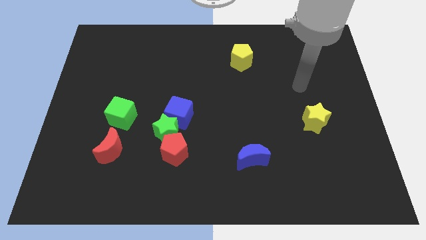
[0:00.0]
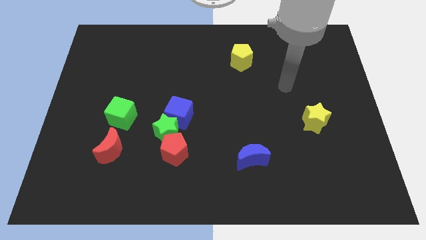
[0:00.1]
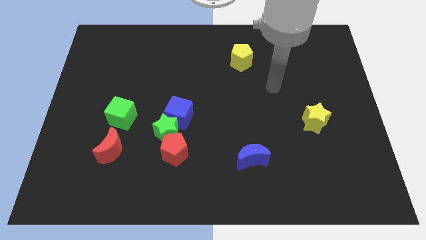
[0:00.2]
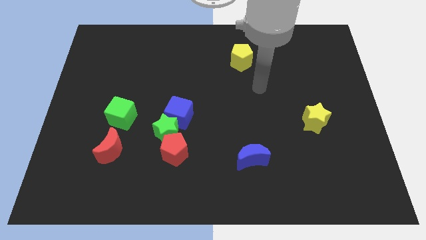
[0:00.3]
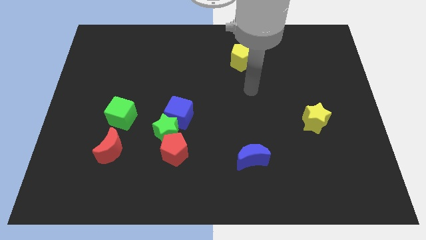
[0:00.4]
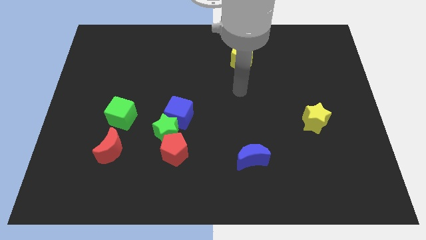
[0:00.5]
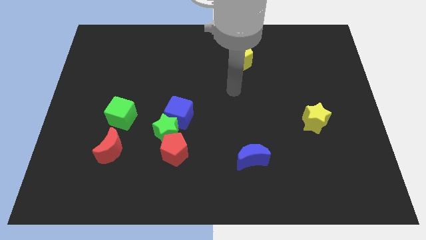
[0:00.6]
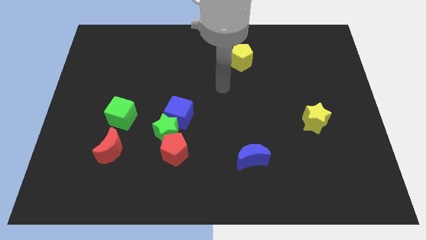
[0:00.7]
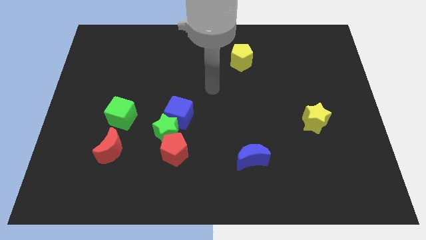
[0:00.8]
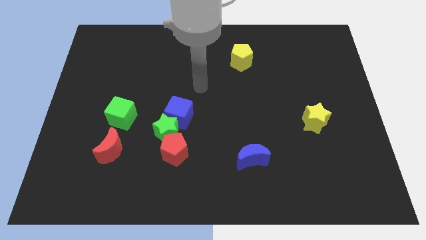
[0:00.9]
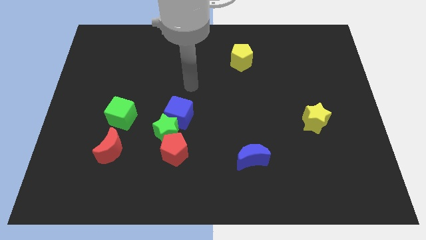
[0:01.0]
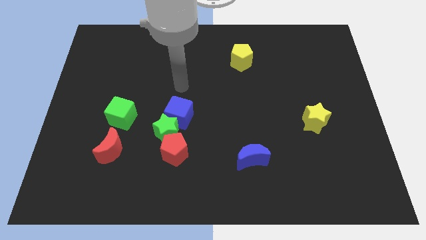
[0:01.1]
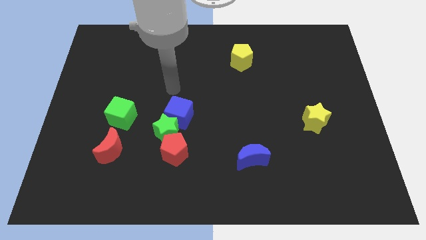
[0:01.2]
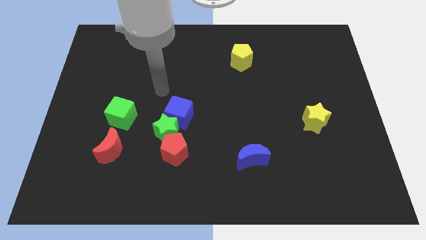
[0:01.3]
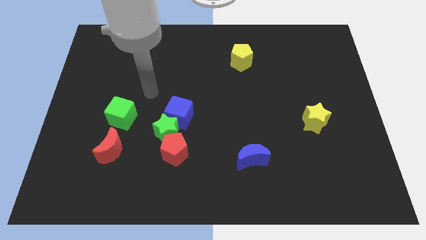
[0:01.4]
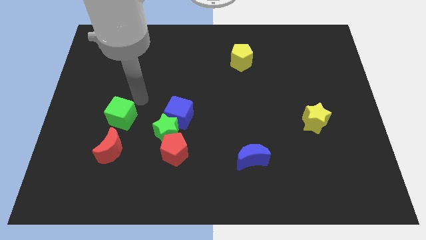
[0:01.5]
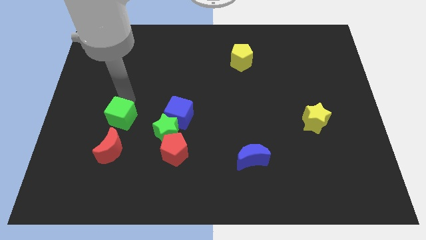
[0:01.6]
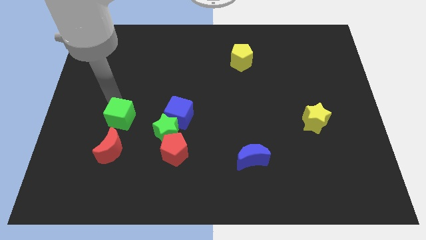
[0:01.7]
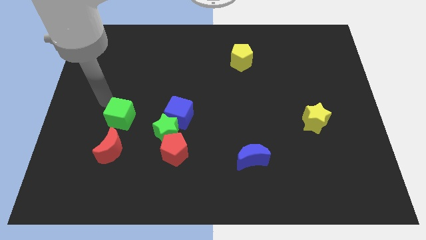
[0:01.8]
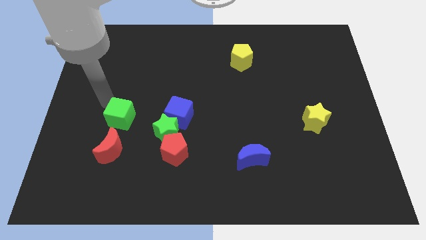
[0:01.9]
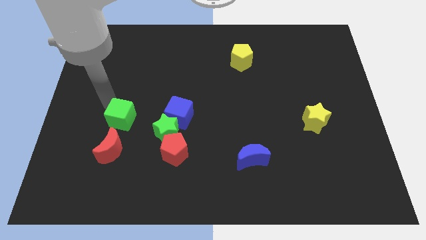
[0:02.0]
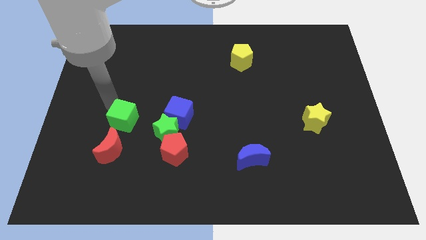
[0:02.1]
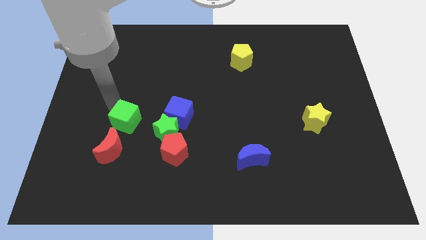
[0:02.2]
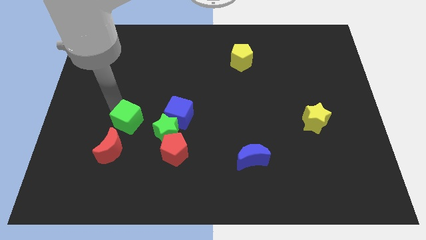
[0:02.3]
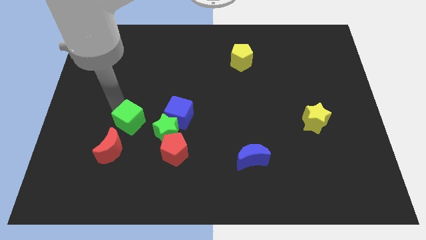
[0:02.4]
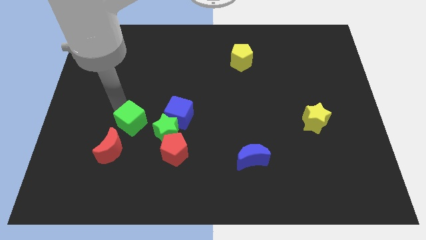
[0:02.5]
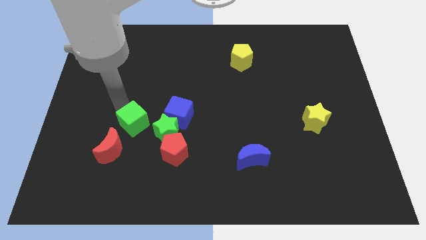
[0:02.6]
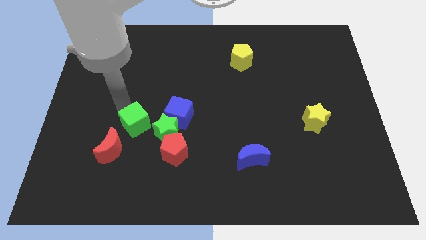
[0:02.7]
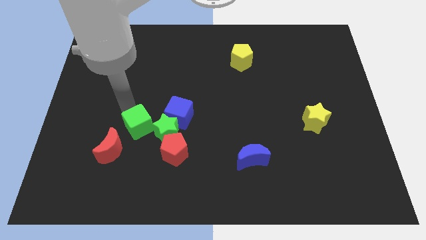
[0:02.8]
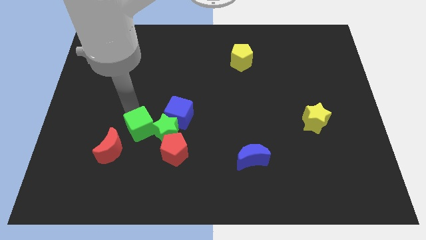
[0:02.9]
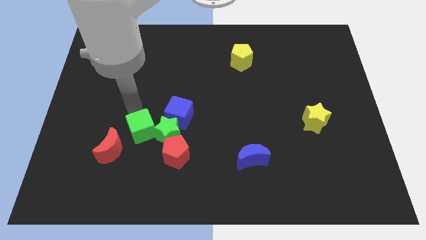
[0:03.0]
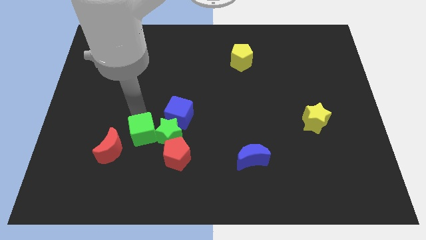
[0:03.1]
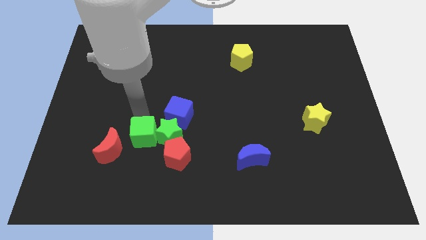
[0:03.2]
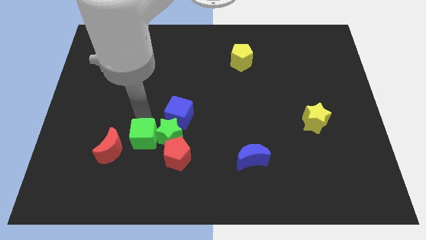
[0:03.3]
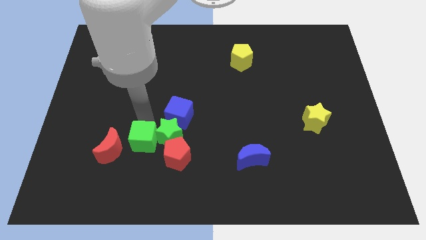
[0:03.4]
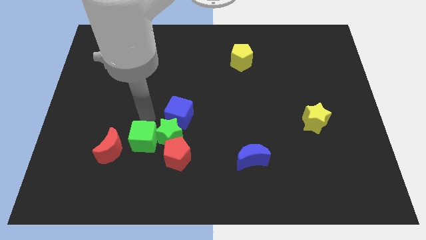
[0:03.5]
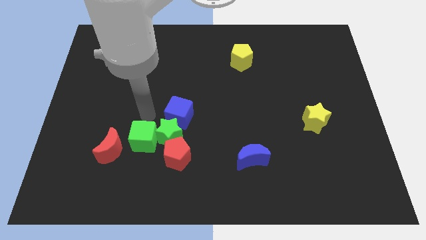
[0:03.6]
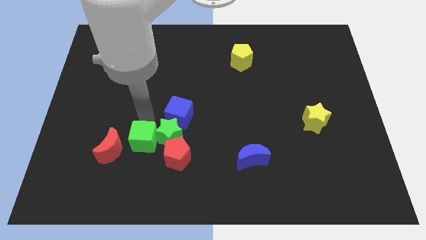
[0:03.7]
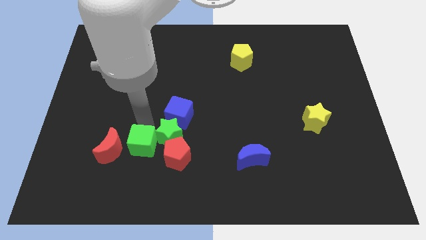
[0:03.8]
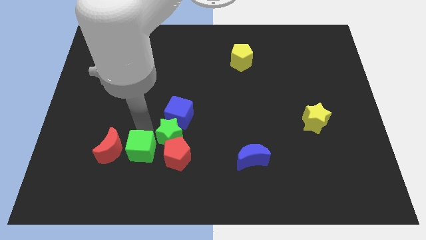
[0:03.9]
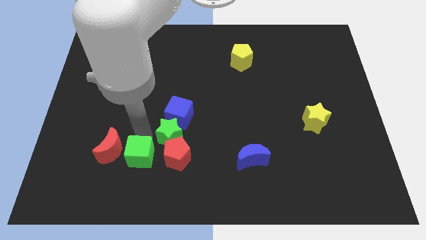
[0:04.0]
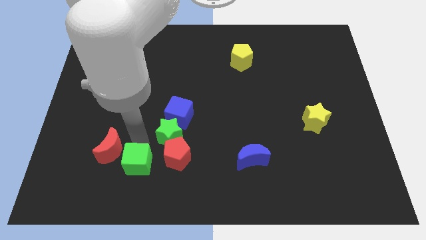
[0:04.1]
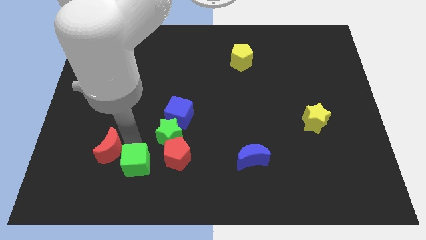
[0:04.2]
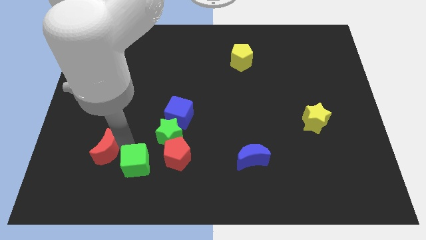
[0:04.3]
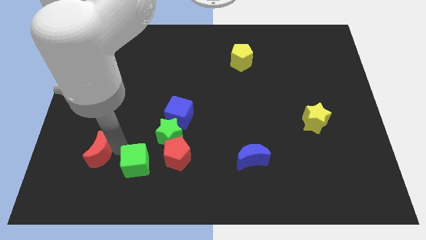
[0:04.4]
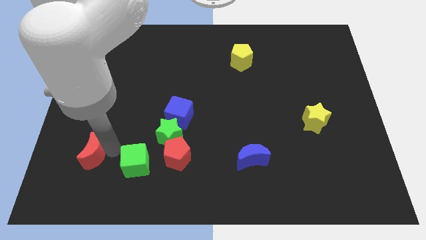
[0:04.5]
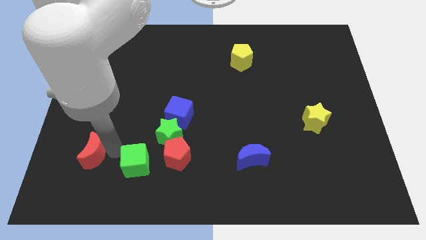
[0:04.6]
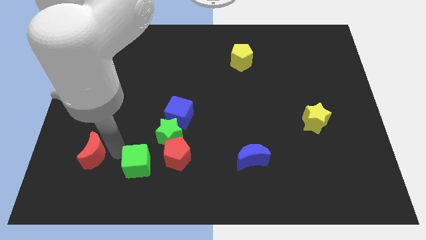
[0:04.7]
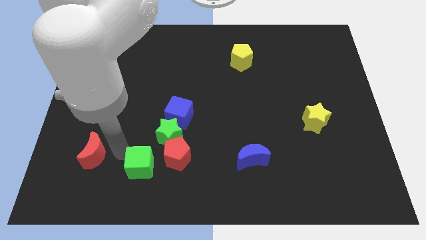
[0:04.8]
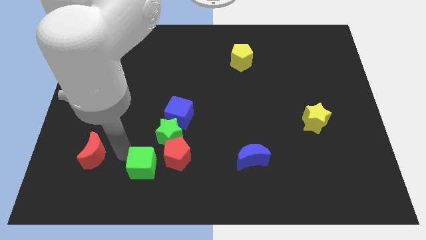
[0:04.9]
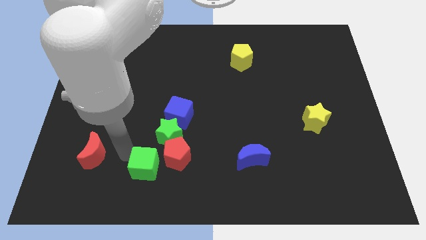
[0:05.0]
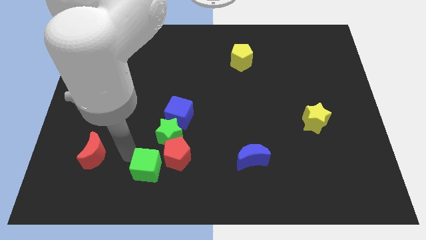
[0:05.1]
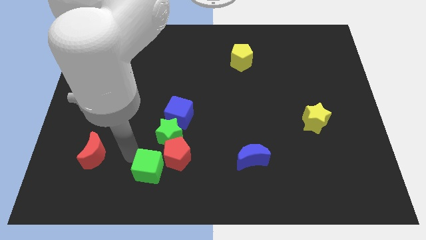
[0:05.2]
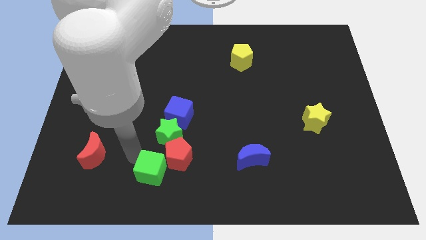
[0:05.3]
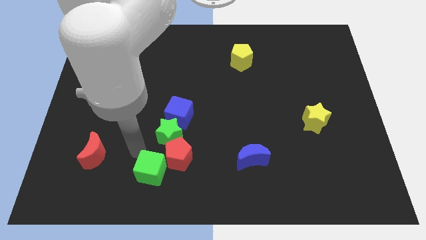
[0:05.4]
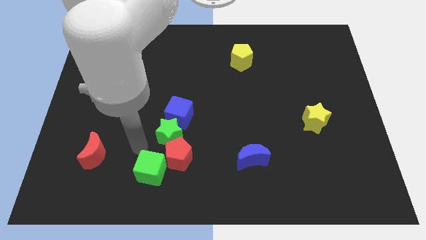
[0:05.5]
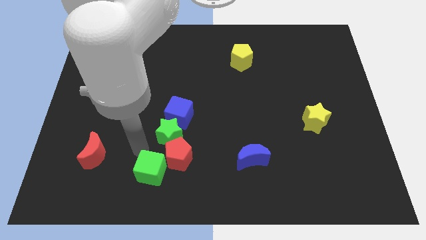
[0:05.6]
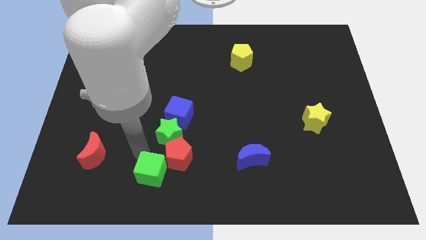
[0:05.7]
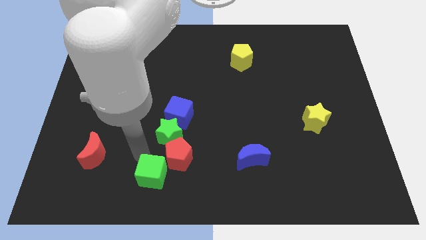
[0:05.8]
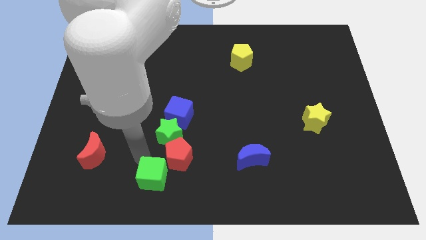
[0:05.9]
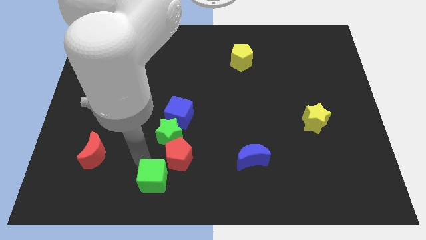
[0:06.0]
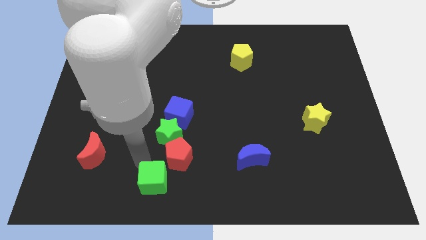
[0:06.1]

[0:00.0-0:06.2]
move the green cube to the bottom side
